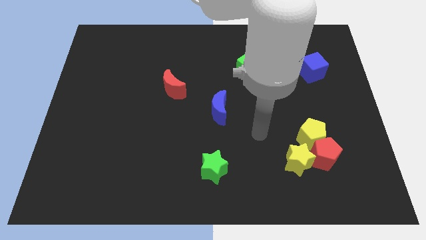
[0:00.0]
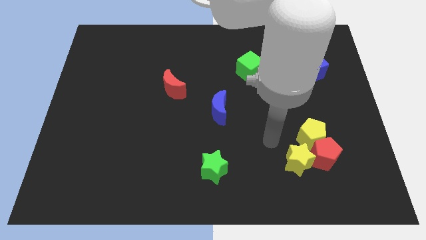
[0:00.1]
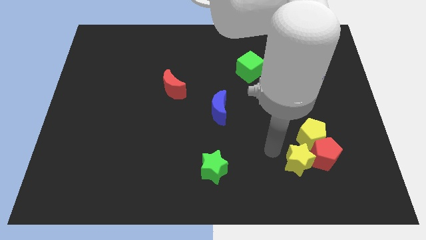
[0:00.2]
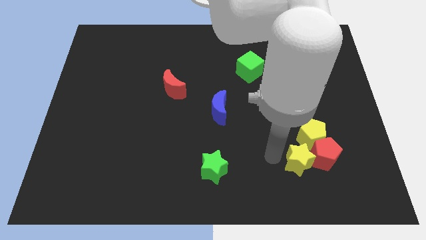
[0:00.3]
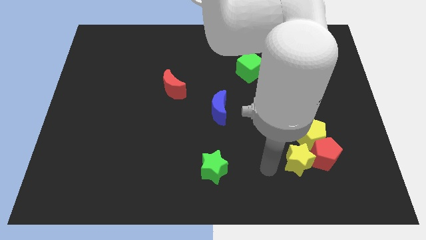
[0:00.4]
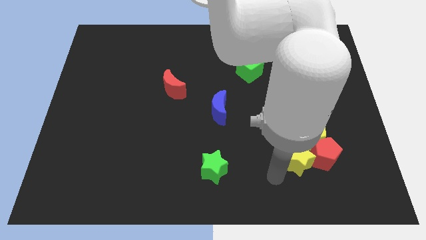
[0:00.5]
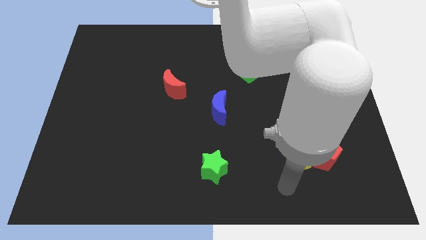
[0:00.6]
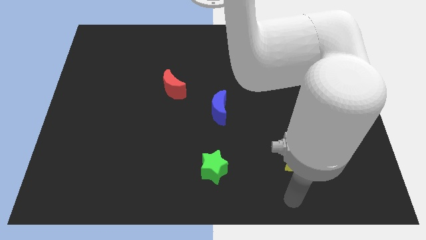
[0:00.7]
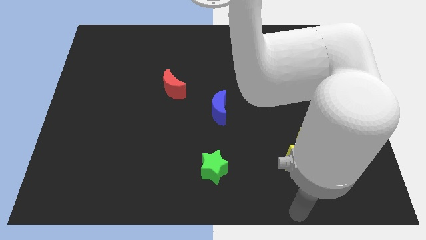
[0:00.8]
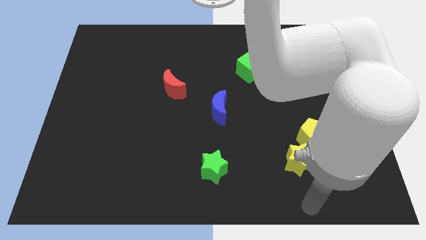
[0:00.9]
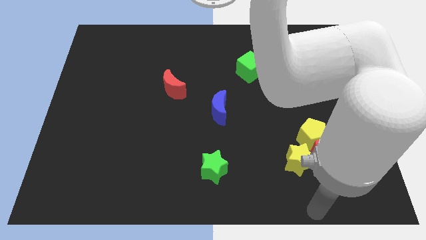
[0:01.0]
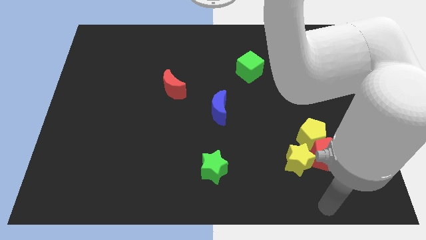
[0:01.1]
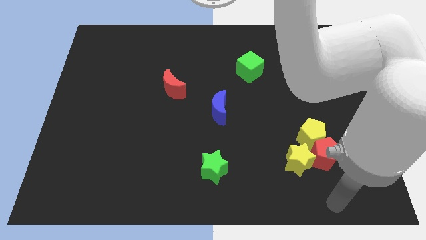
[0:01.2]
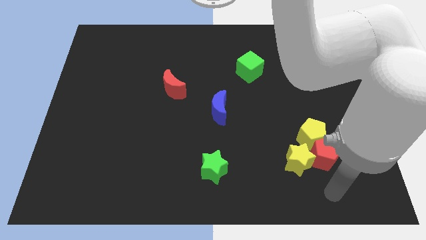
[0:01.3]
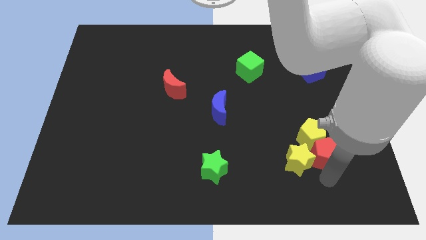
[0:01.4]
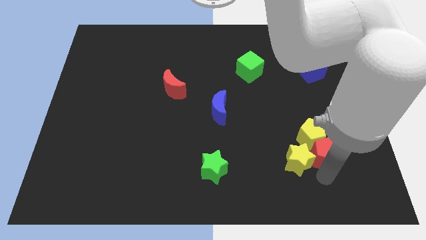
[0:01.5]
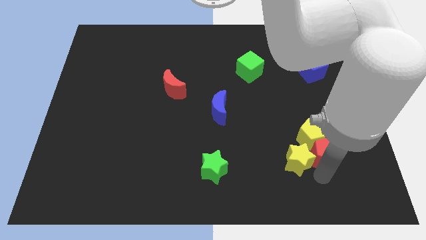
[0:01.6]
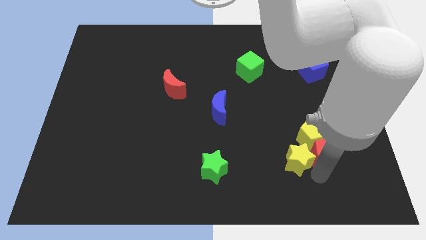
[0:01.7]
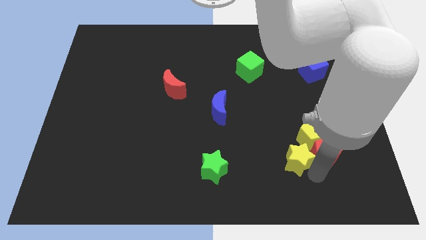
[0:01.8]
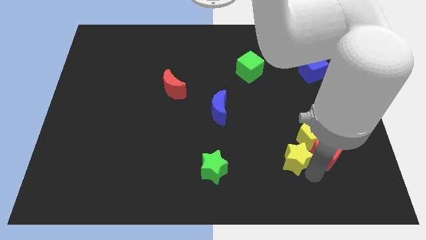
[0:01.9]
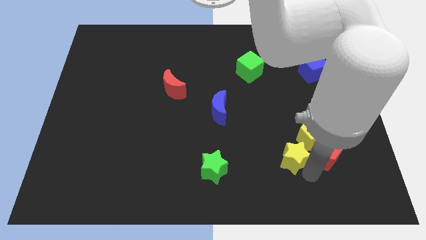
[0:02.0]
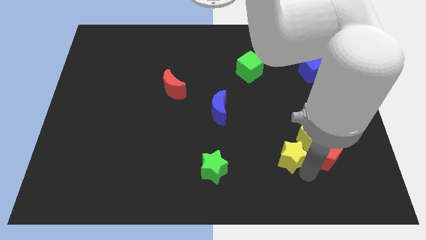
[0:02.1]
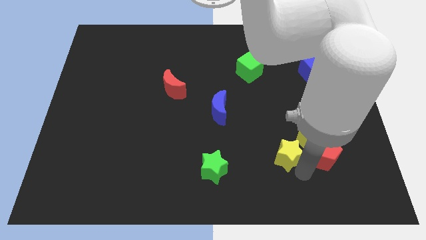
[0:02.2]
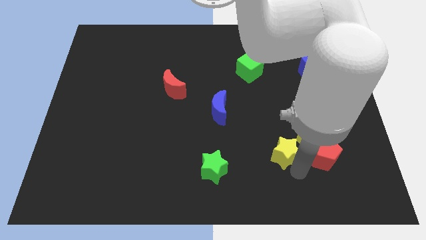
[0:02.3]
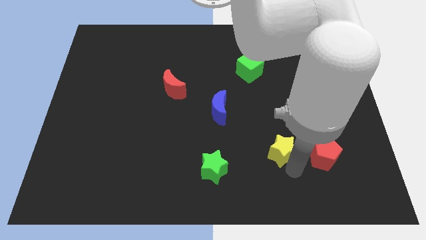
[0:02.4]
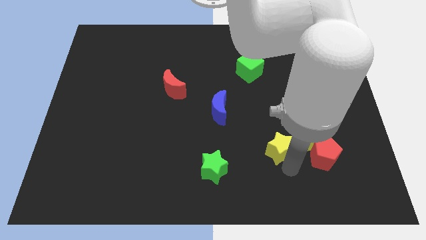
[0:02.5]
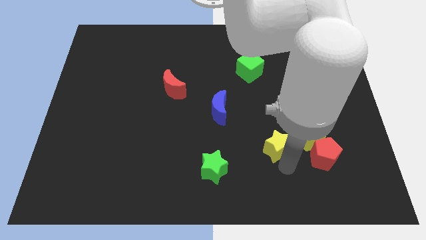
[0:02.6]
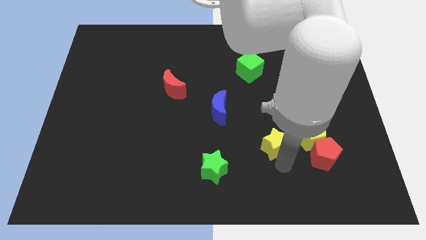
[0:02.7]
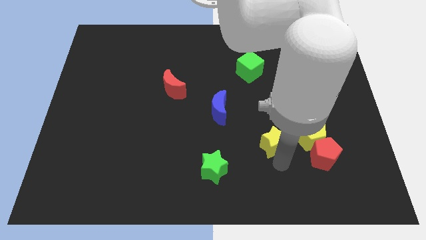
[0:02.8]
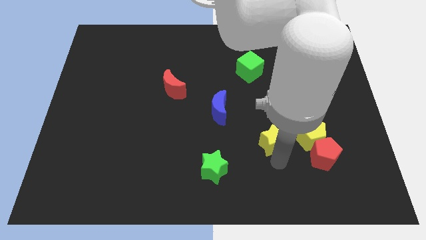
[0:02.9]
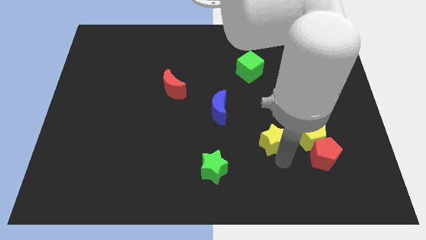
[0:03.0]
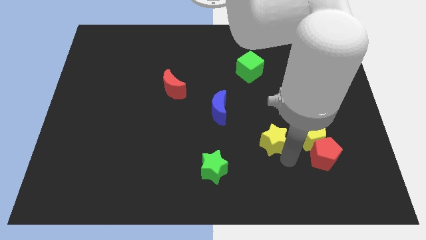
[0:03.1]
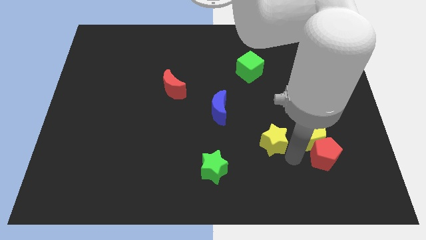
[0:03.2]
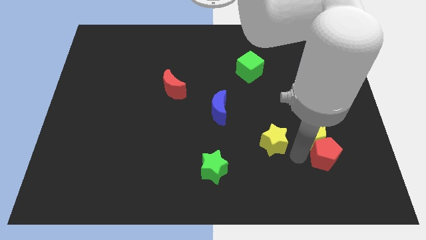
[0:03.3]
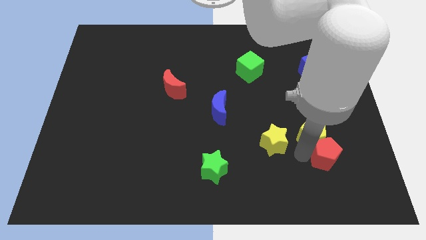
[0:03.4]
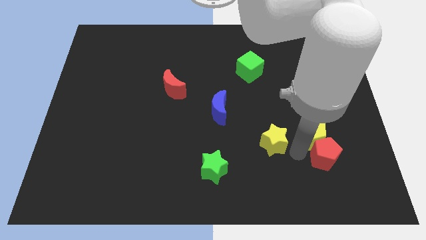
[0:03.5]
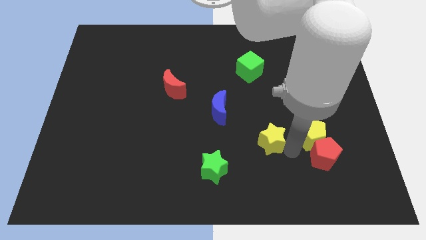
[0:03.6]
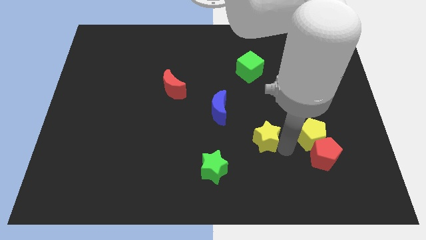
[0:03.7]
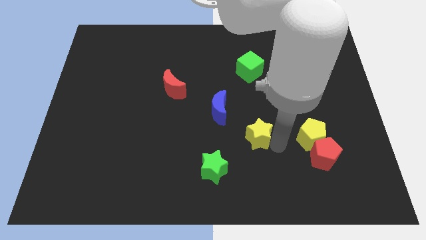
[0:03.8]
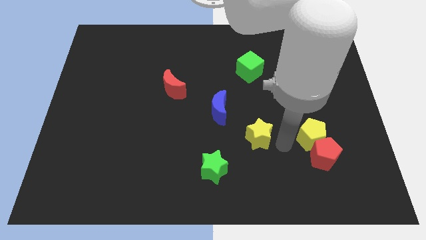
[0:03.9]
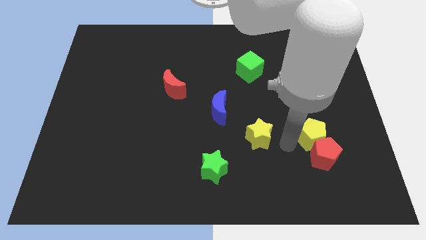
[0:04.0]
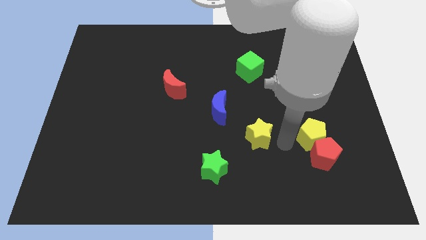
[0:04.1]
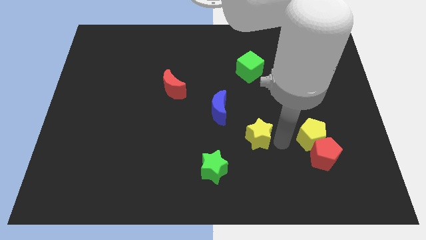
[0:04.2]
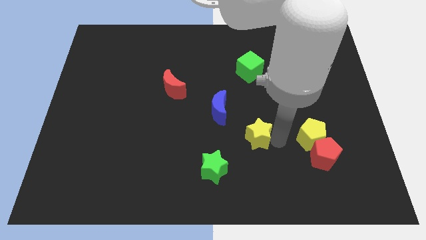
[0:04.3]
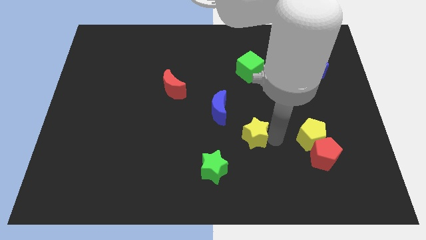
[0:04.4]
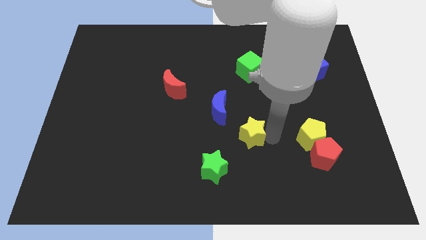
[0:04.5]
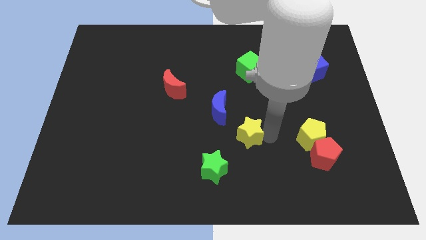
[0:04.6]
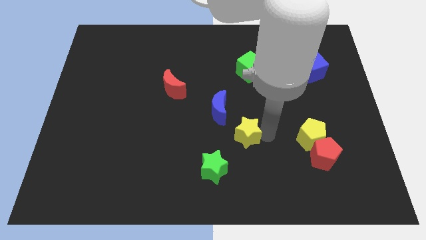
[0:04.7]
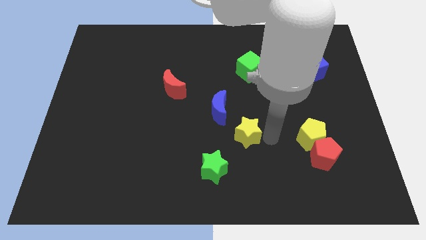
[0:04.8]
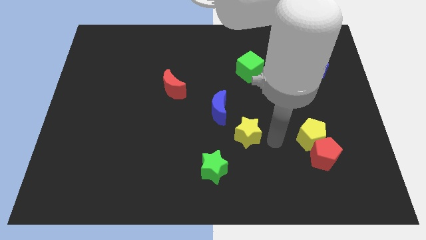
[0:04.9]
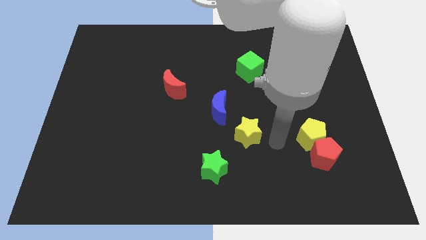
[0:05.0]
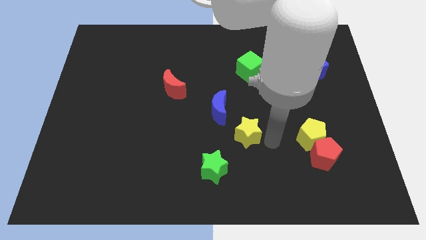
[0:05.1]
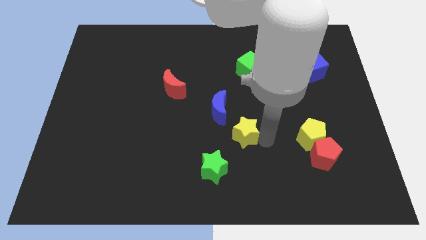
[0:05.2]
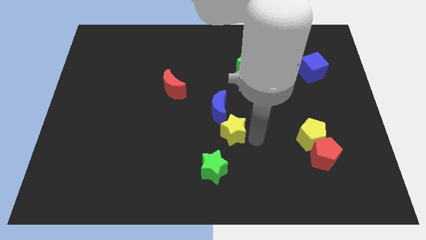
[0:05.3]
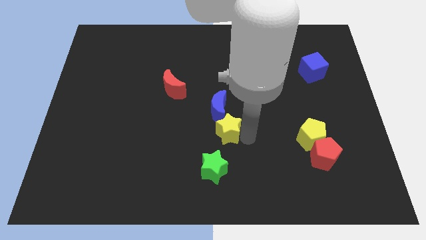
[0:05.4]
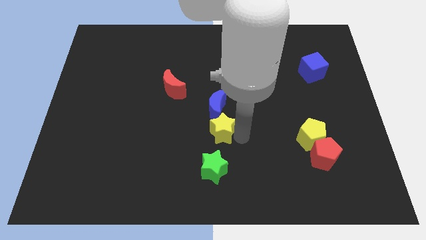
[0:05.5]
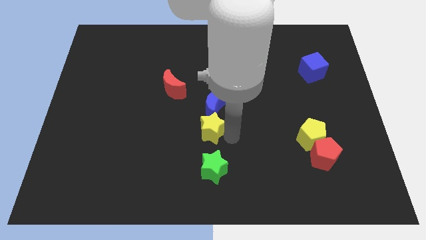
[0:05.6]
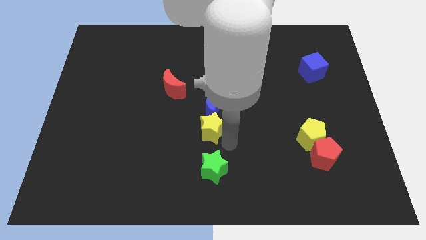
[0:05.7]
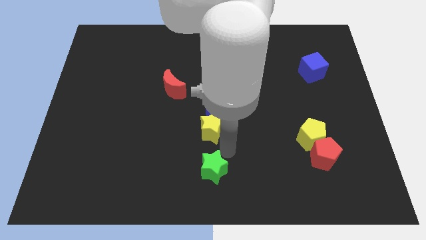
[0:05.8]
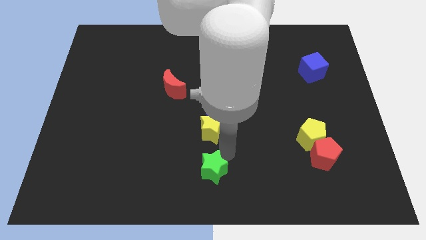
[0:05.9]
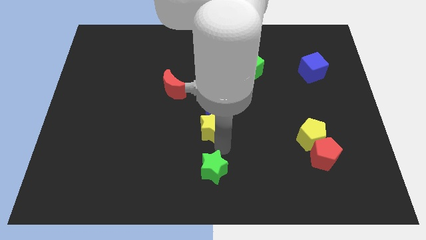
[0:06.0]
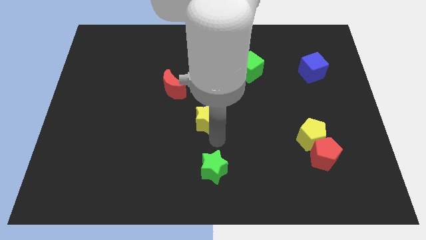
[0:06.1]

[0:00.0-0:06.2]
push the yellow star diagonally down and to the right of the red moon

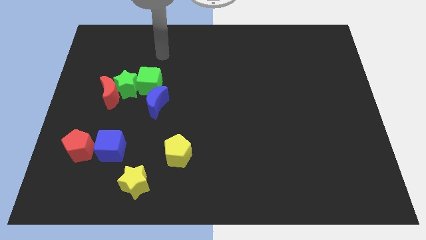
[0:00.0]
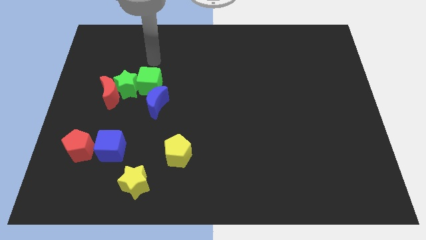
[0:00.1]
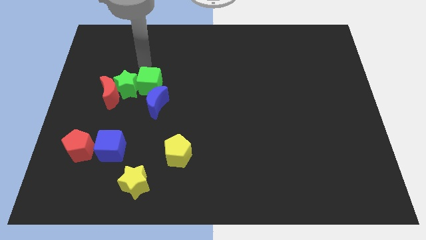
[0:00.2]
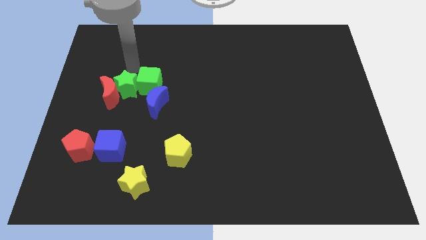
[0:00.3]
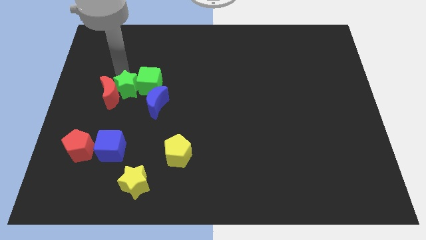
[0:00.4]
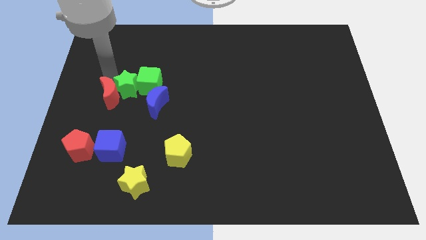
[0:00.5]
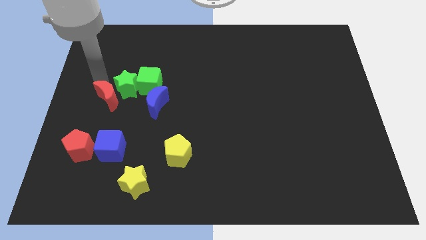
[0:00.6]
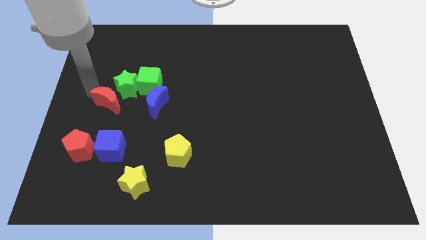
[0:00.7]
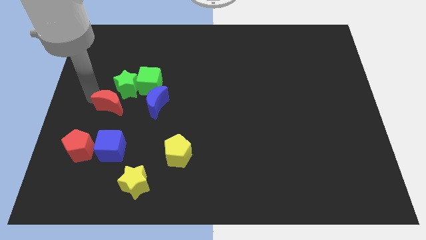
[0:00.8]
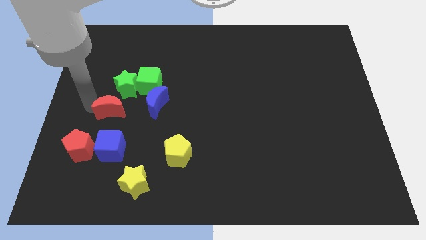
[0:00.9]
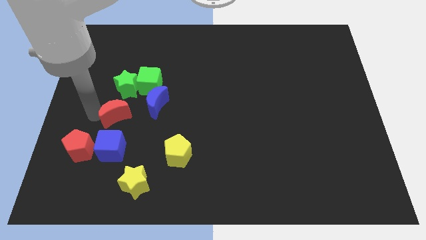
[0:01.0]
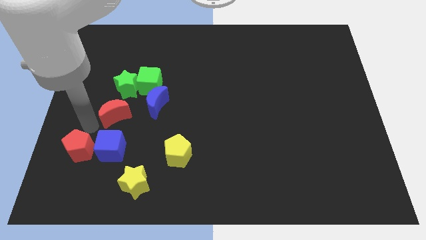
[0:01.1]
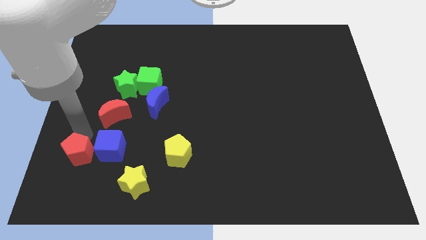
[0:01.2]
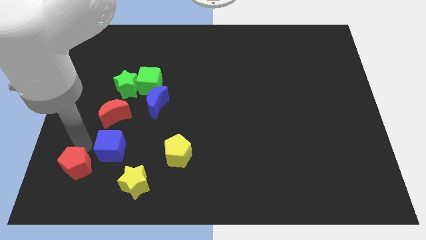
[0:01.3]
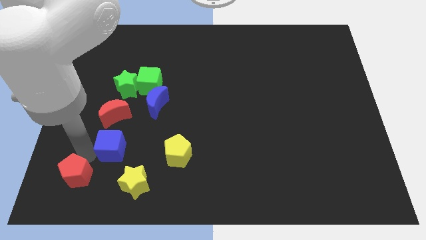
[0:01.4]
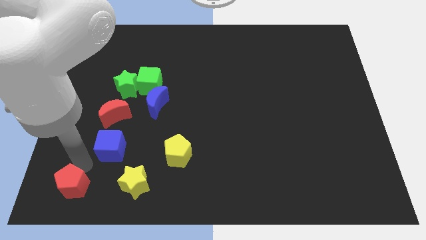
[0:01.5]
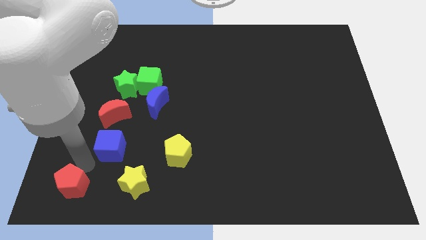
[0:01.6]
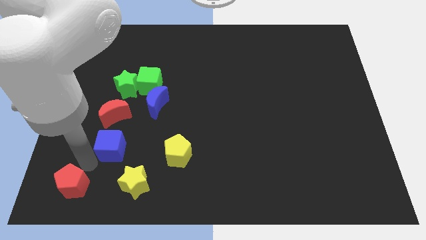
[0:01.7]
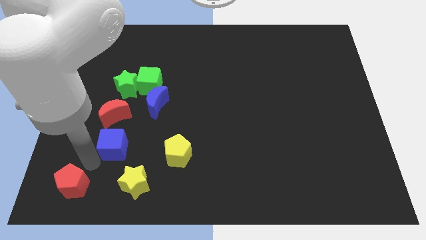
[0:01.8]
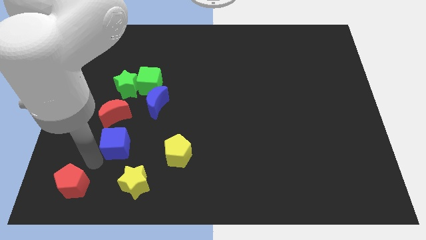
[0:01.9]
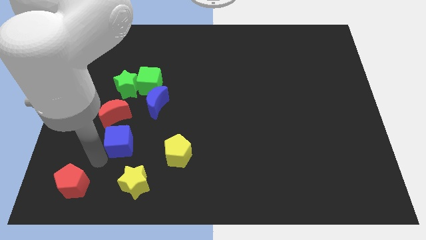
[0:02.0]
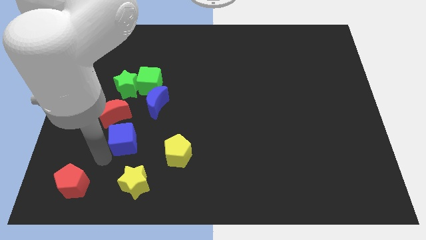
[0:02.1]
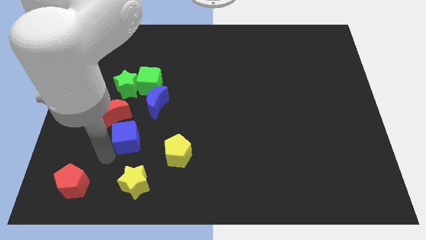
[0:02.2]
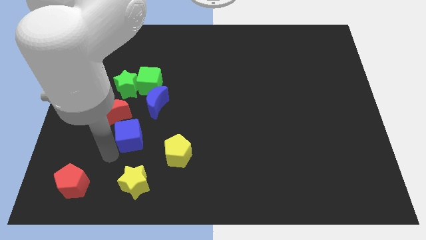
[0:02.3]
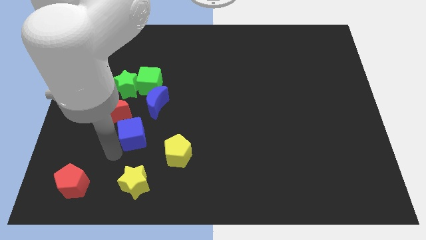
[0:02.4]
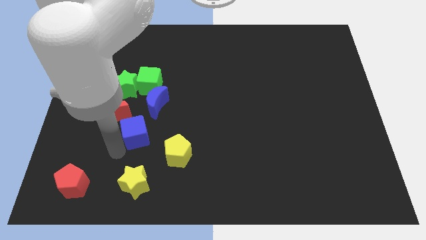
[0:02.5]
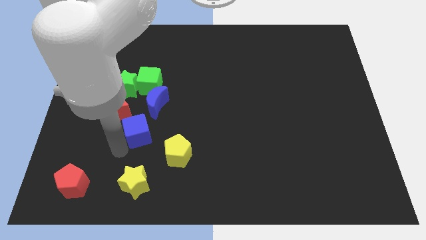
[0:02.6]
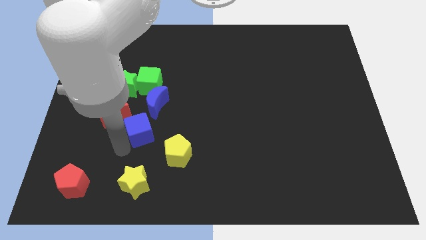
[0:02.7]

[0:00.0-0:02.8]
move the blue cube right of the red moon
